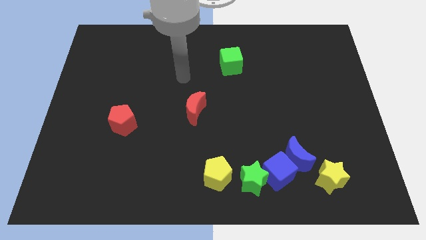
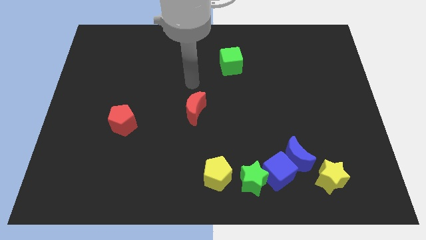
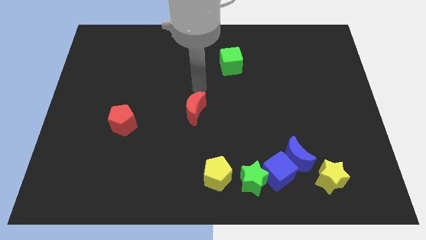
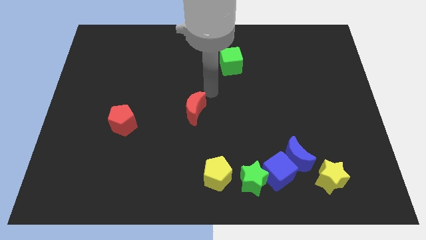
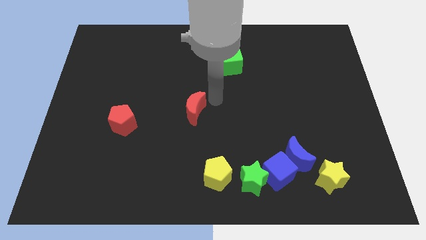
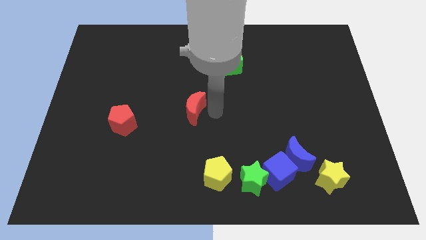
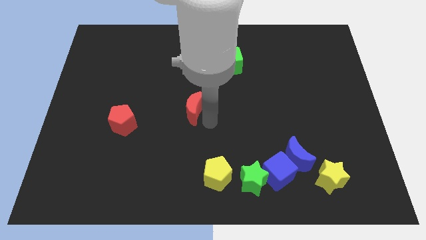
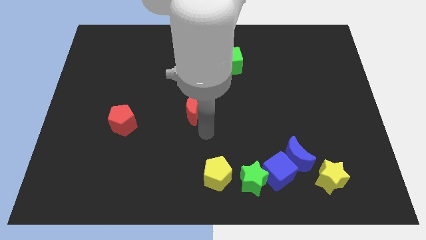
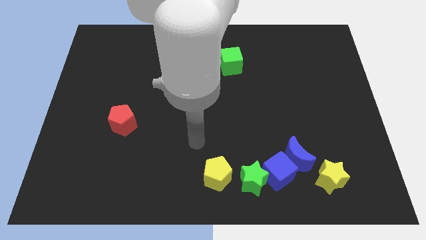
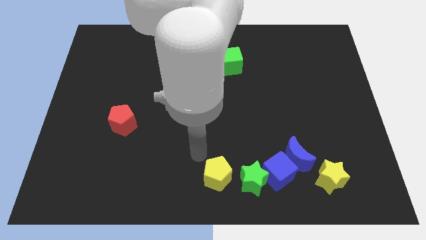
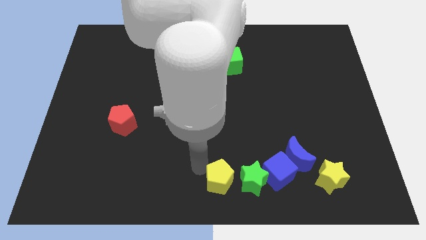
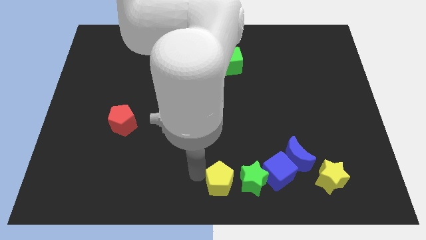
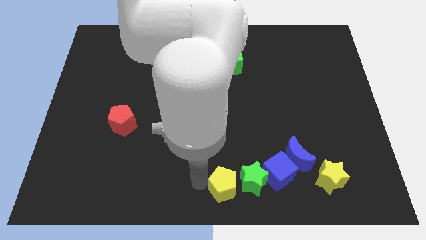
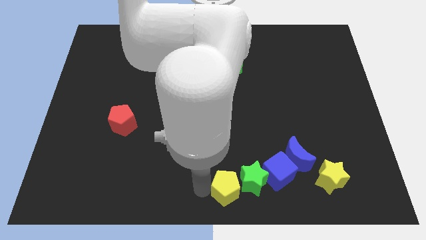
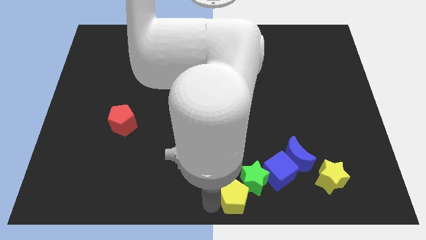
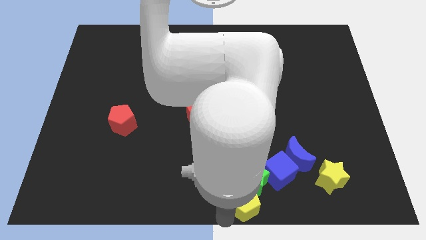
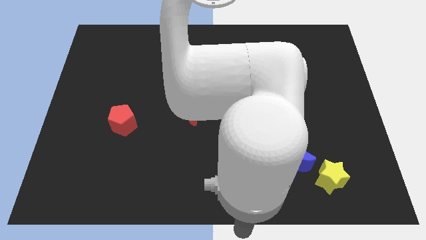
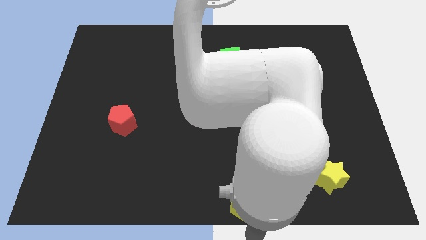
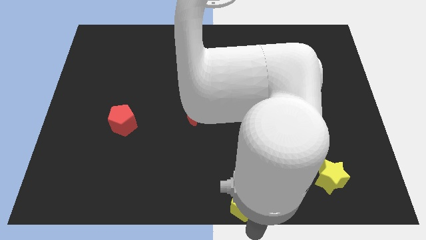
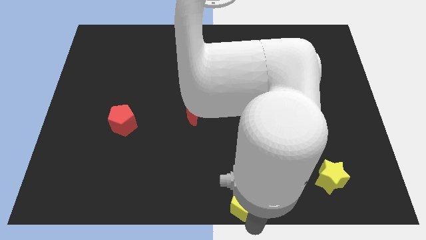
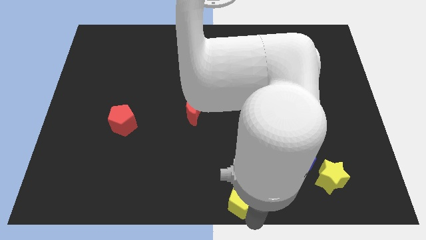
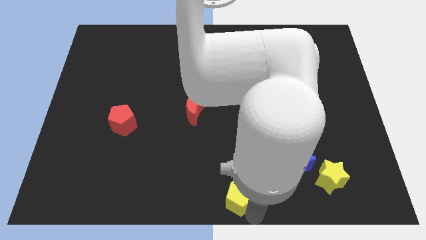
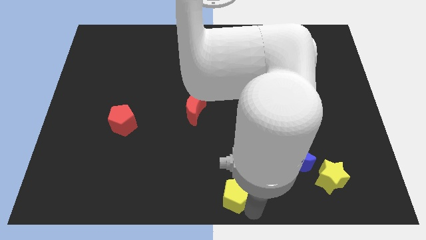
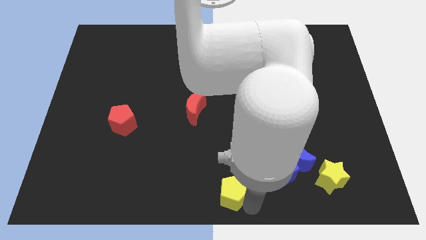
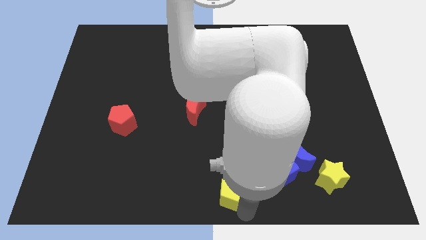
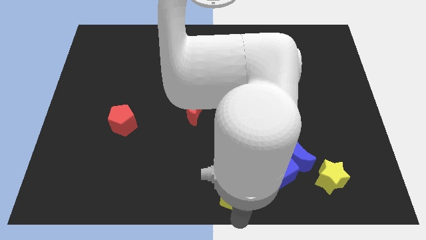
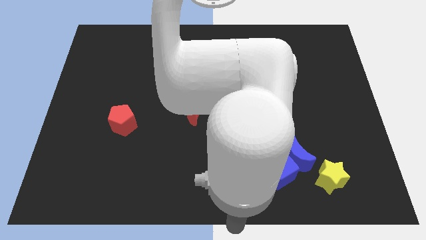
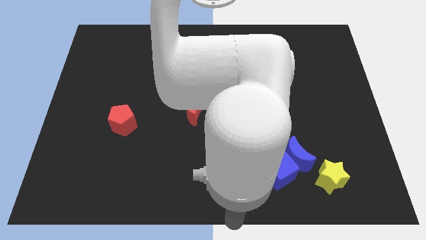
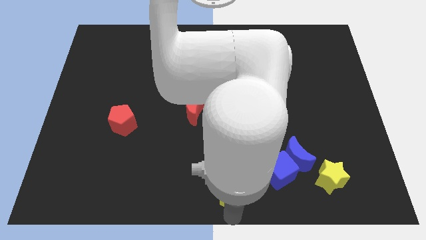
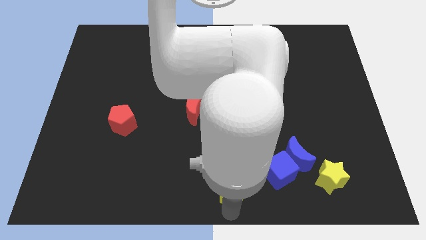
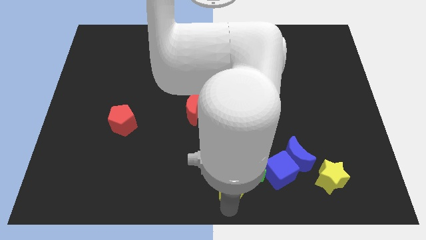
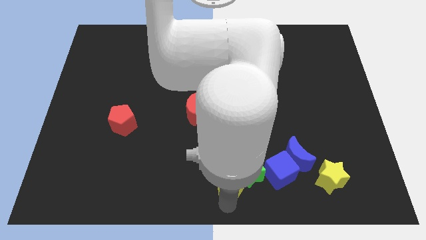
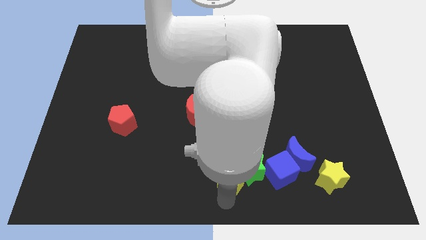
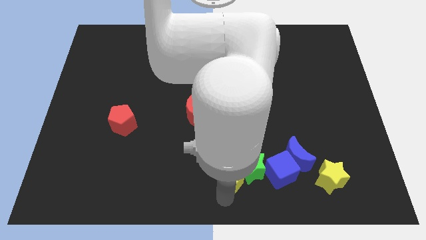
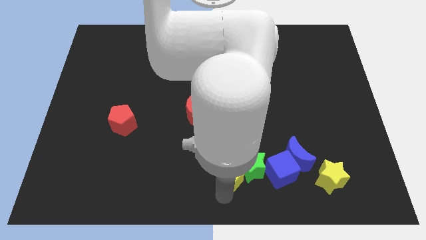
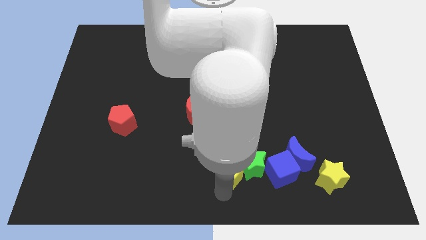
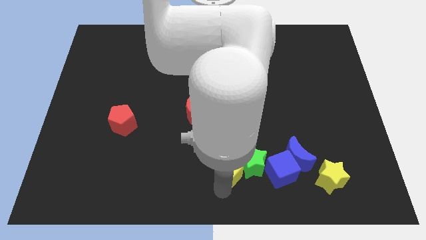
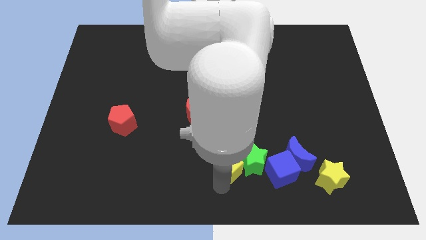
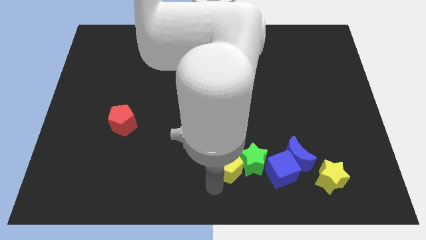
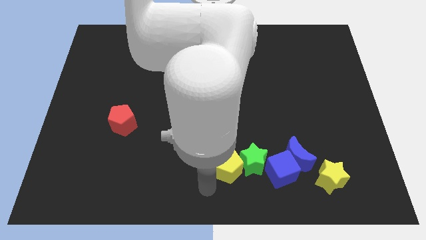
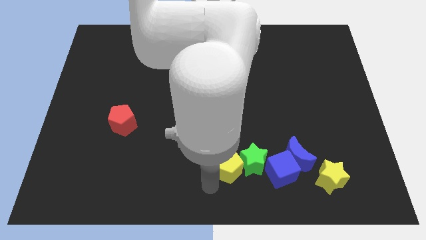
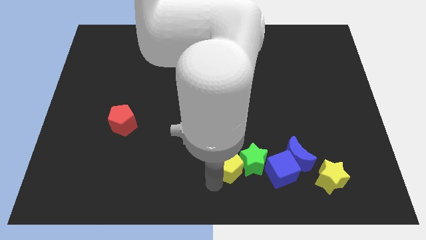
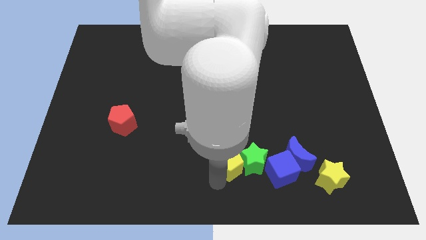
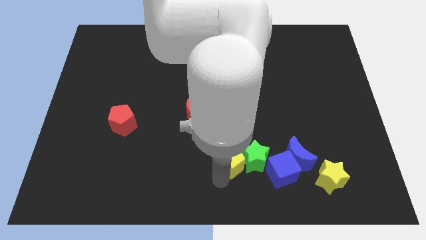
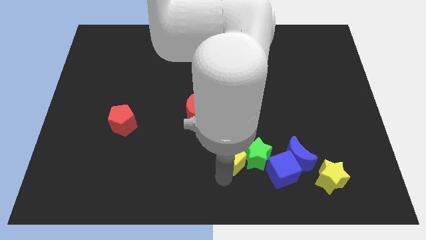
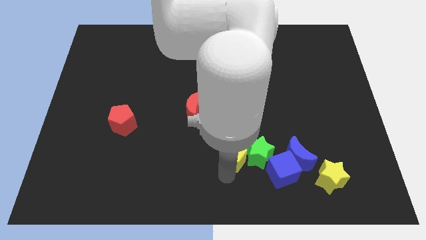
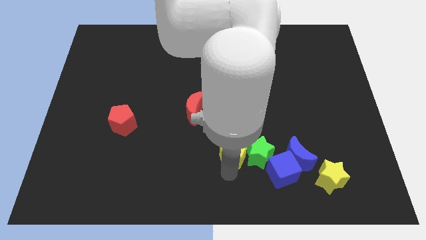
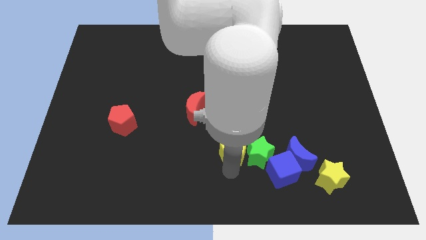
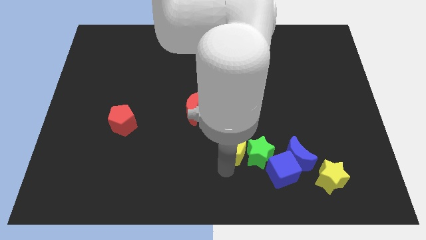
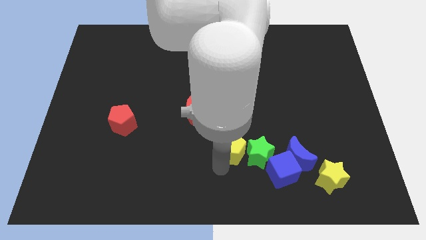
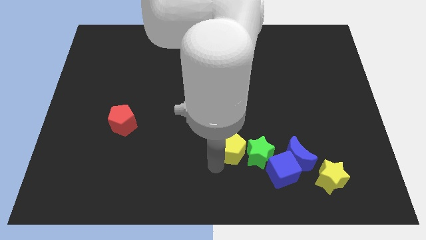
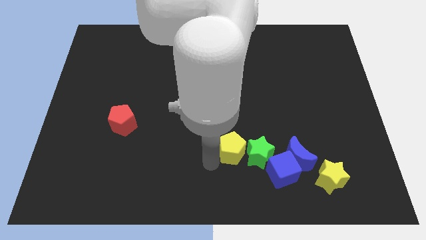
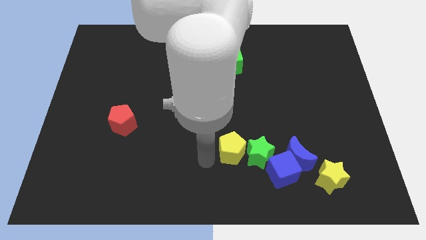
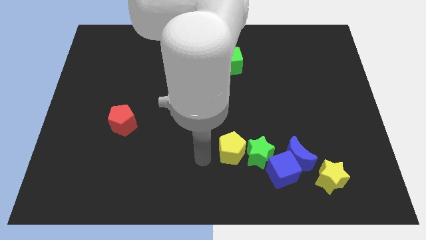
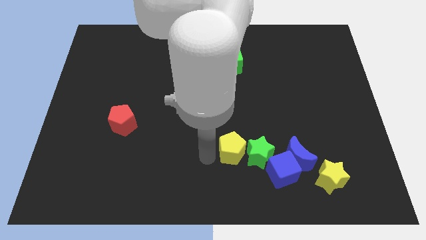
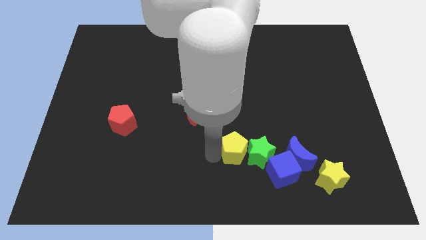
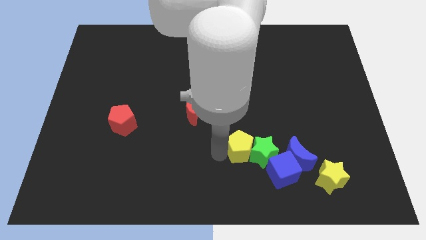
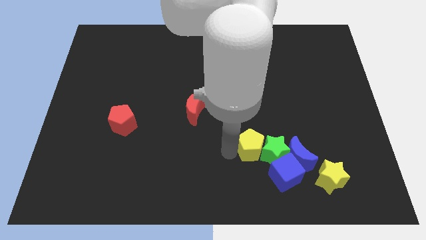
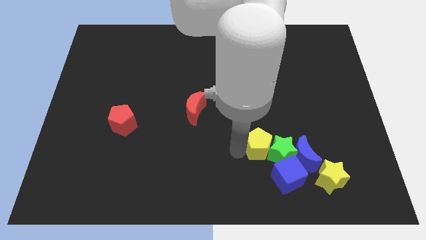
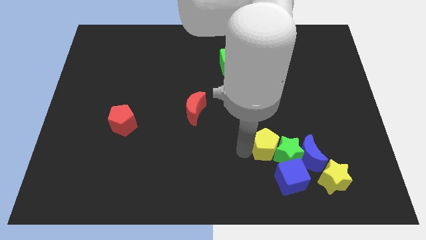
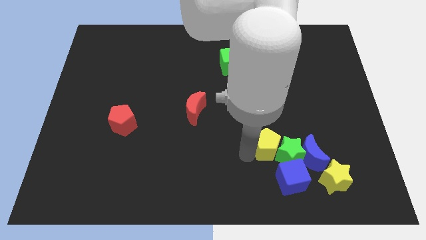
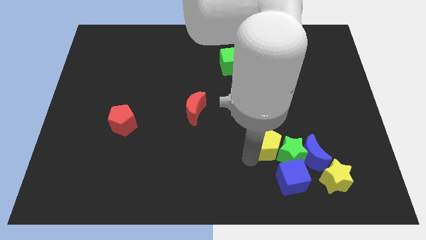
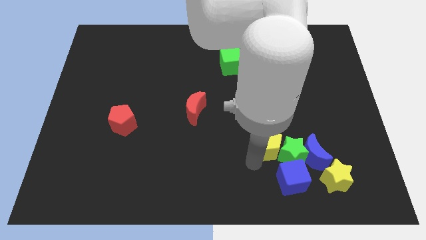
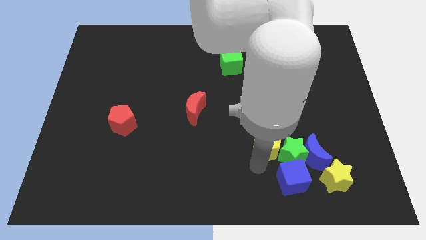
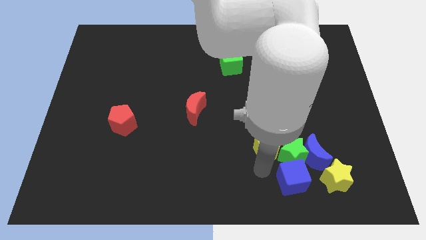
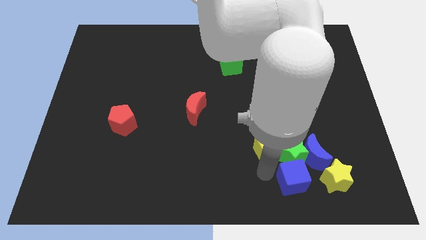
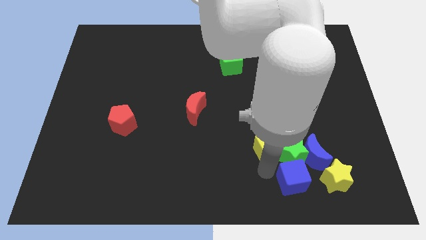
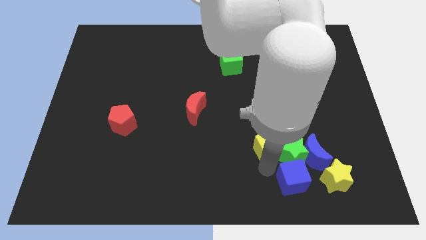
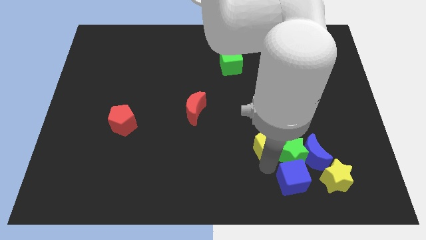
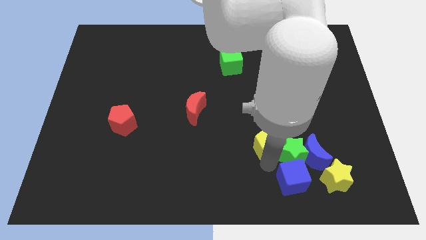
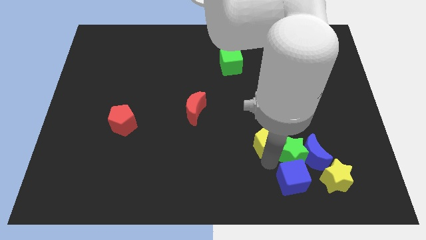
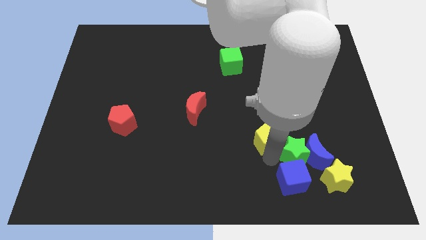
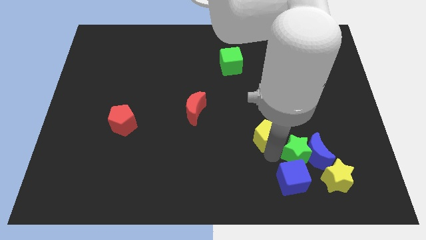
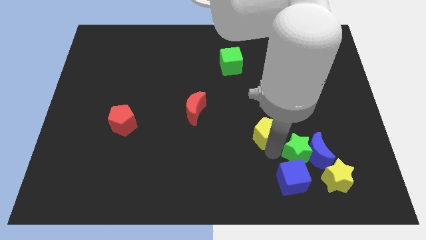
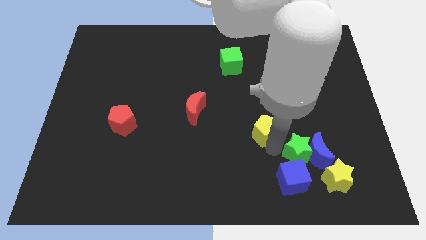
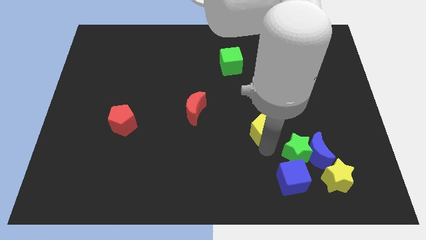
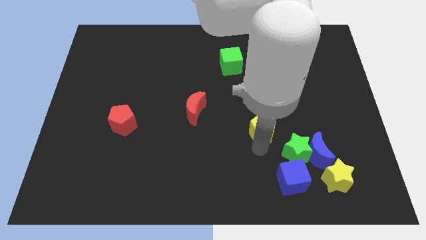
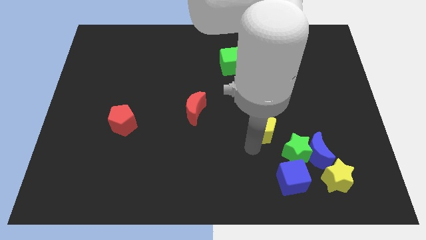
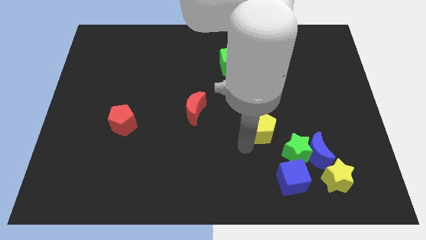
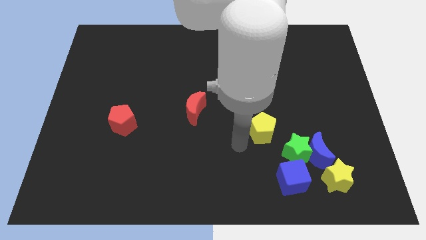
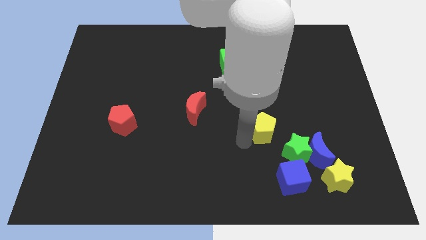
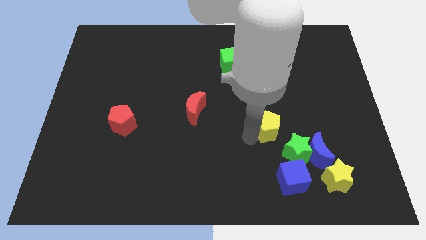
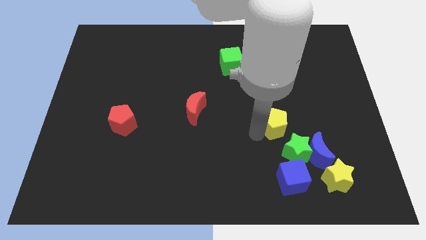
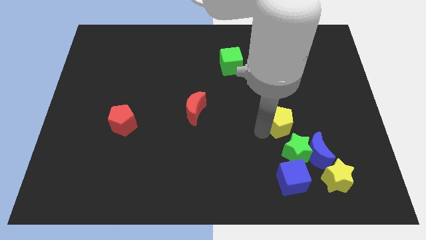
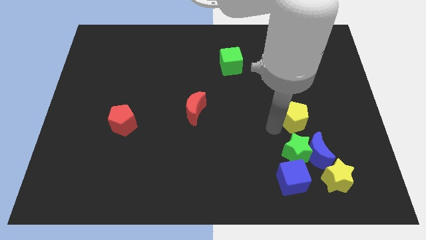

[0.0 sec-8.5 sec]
push the yellow pentagon up and right

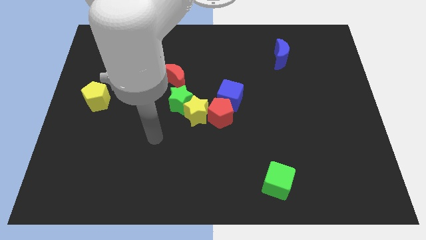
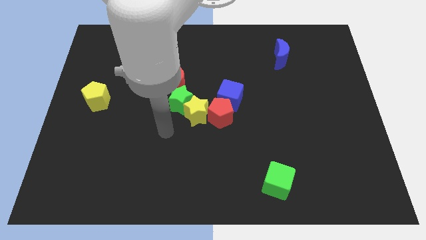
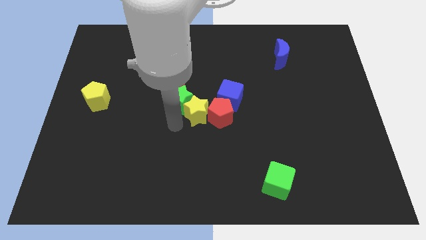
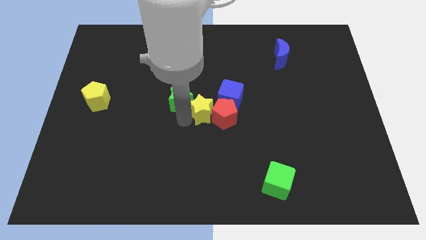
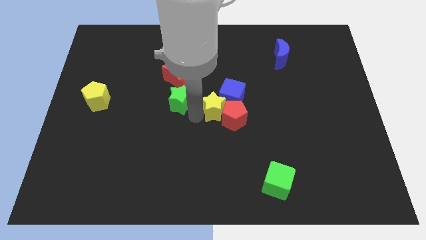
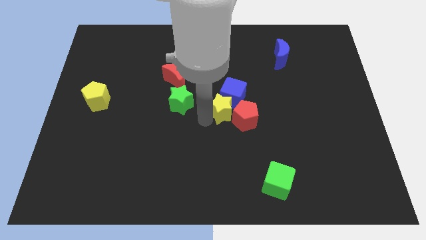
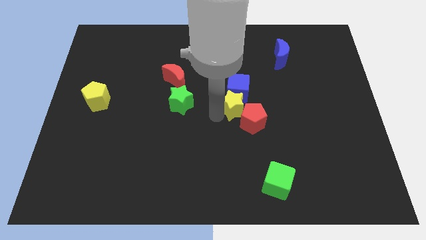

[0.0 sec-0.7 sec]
slightly move the red pentagon right
